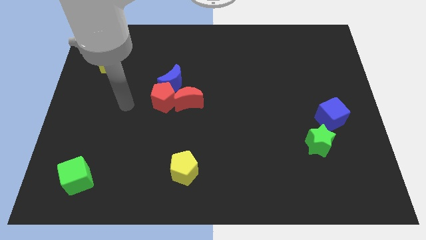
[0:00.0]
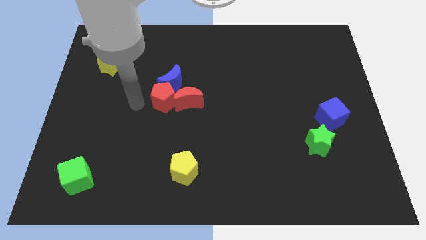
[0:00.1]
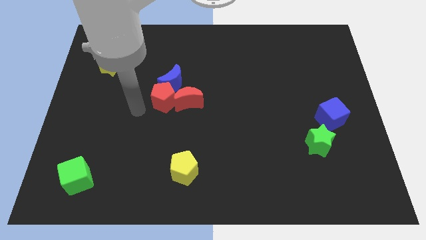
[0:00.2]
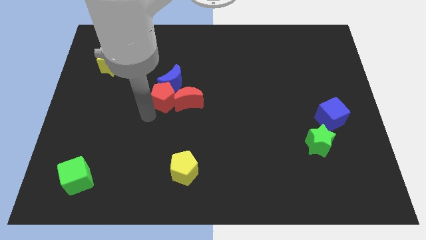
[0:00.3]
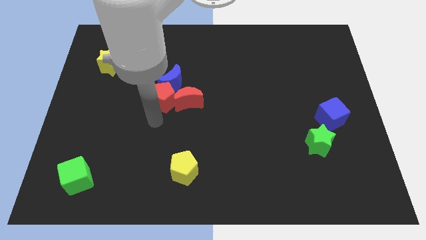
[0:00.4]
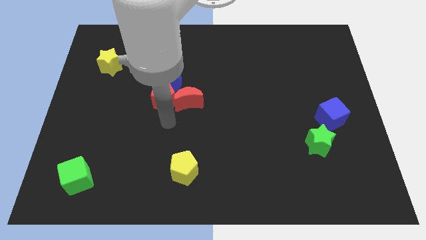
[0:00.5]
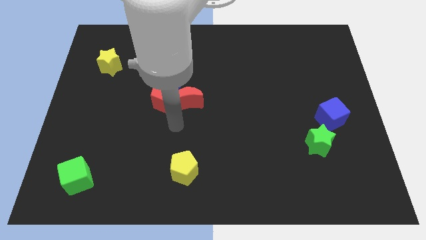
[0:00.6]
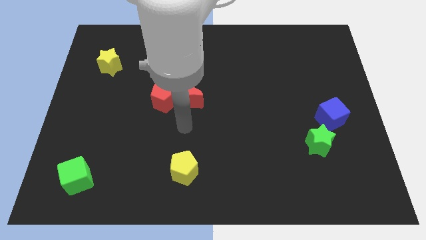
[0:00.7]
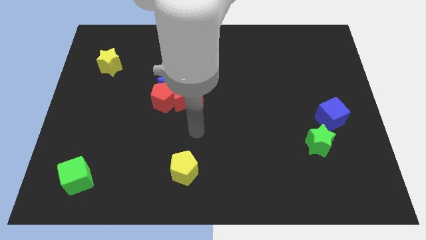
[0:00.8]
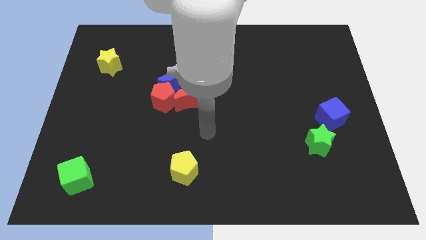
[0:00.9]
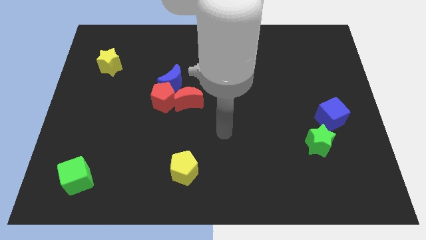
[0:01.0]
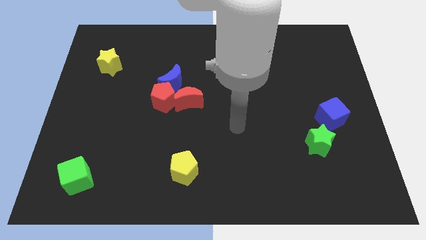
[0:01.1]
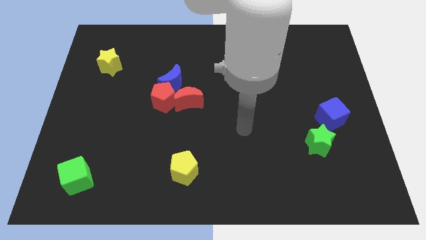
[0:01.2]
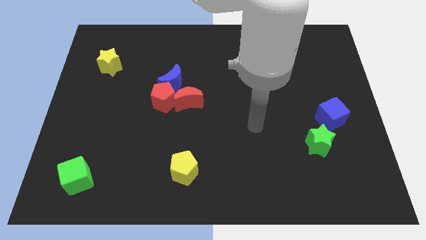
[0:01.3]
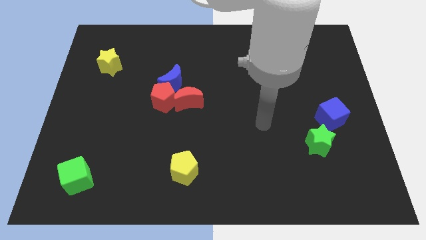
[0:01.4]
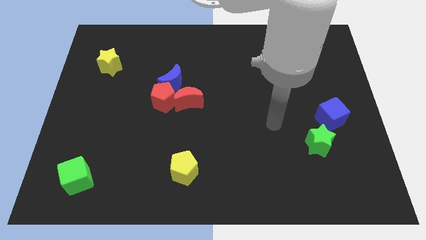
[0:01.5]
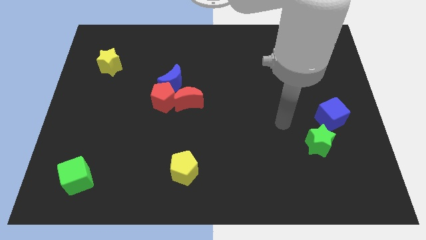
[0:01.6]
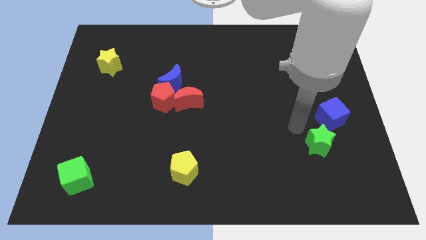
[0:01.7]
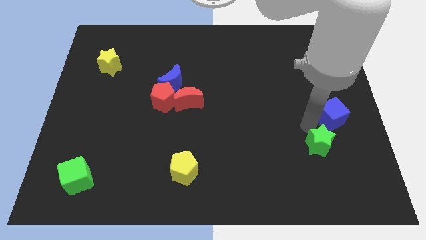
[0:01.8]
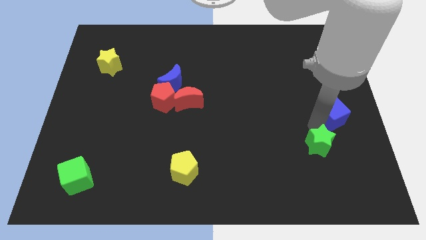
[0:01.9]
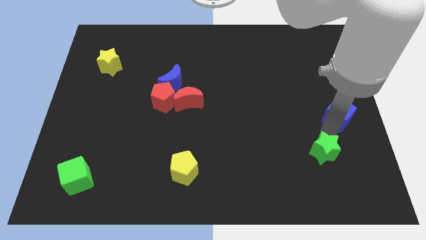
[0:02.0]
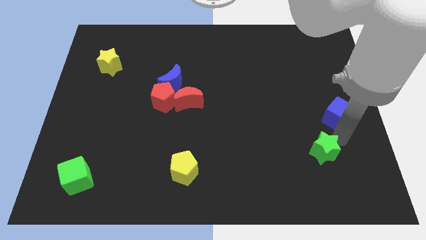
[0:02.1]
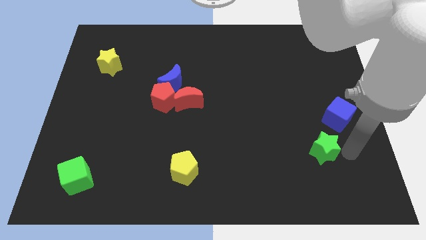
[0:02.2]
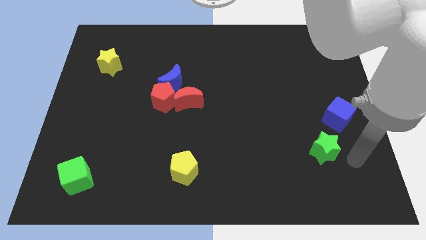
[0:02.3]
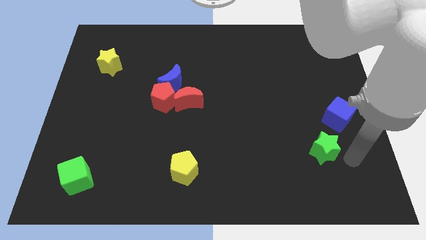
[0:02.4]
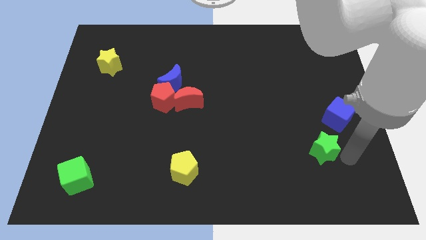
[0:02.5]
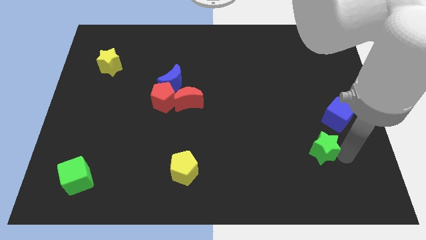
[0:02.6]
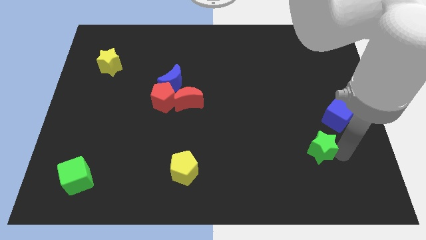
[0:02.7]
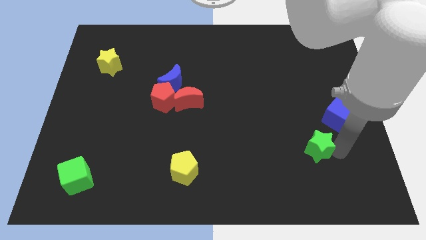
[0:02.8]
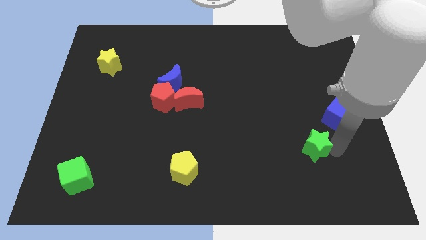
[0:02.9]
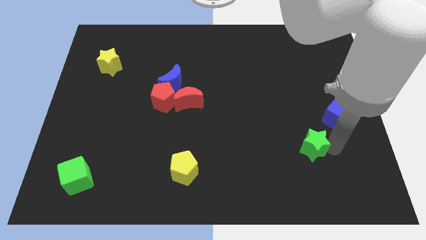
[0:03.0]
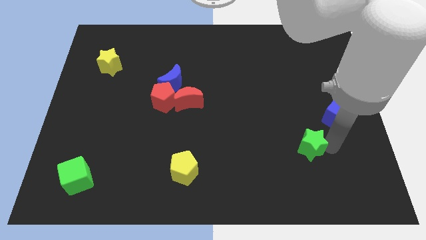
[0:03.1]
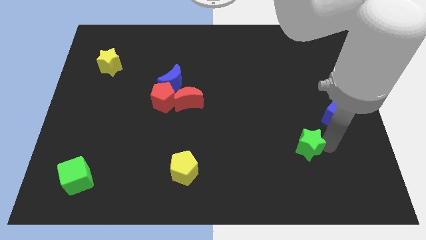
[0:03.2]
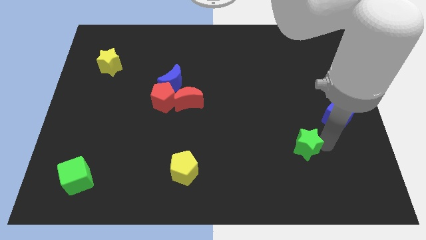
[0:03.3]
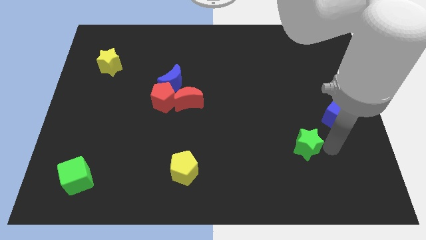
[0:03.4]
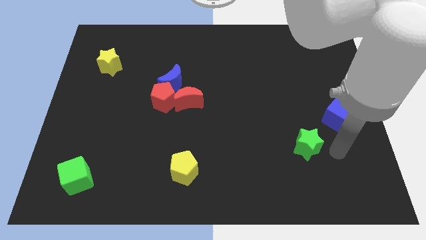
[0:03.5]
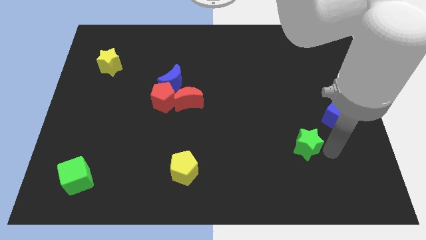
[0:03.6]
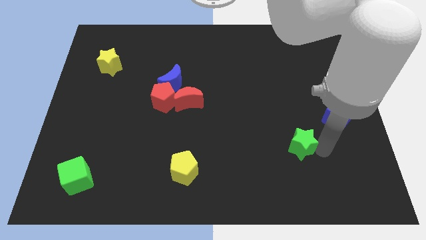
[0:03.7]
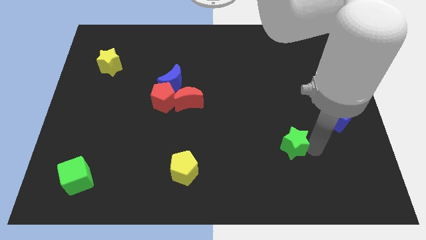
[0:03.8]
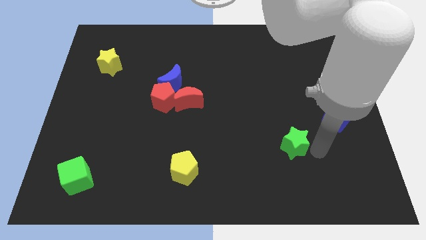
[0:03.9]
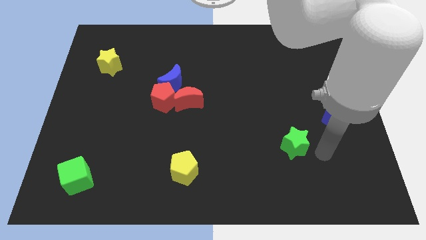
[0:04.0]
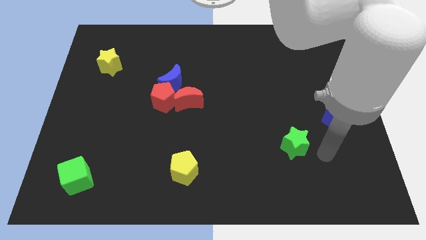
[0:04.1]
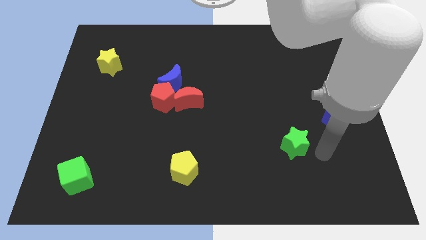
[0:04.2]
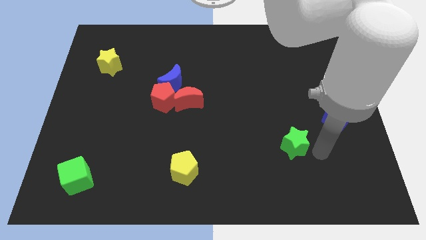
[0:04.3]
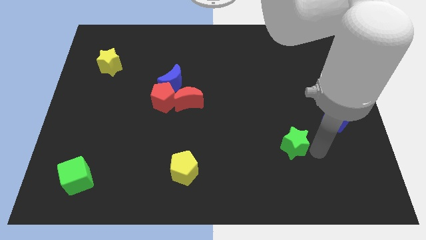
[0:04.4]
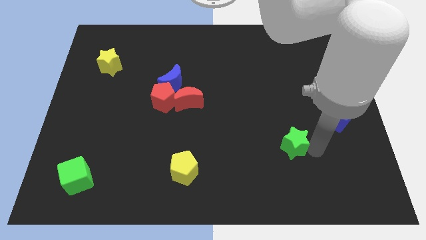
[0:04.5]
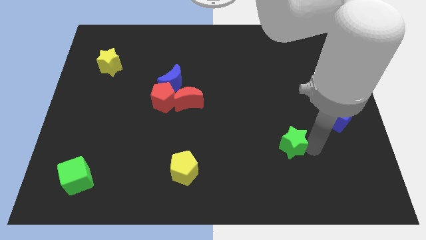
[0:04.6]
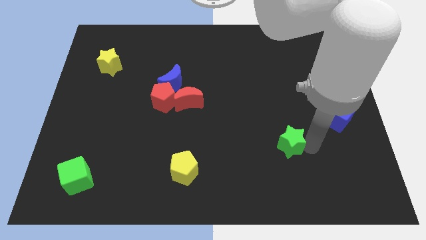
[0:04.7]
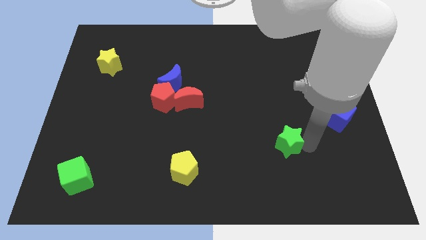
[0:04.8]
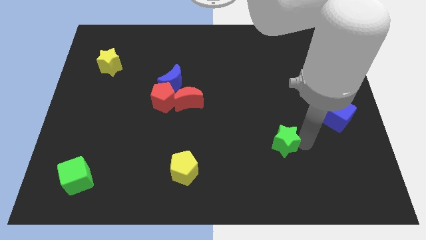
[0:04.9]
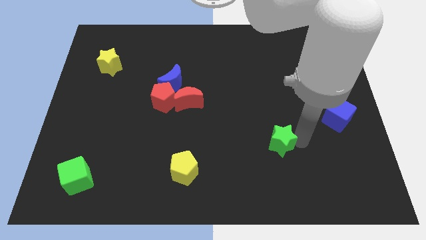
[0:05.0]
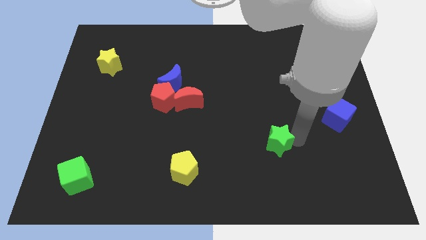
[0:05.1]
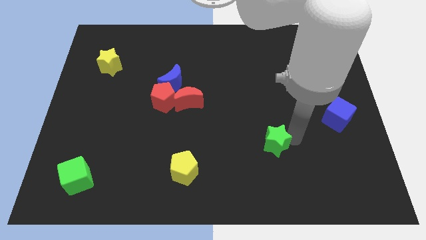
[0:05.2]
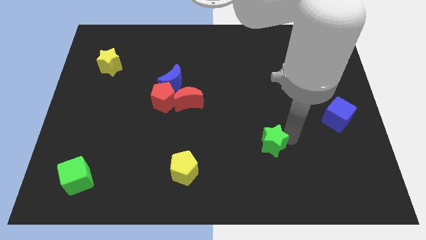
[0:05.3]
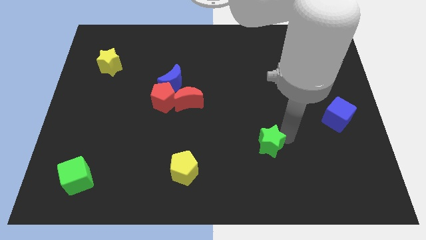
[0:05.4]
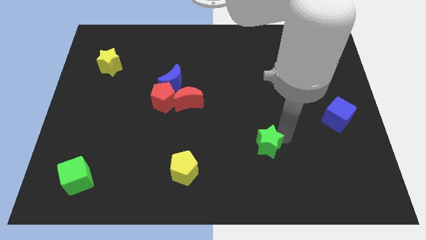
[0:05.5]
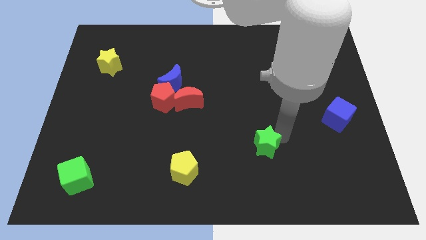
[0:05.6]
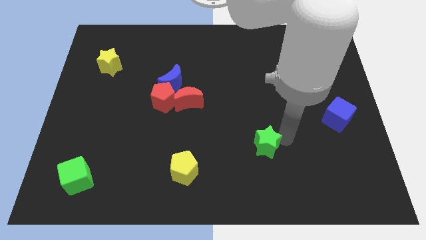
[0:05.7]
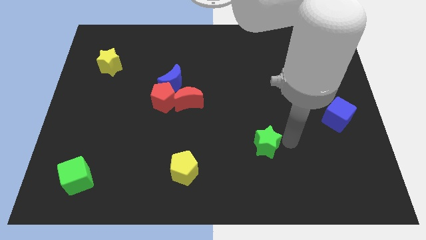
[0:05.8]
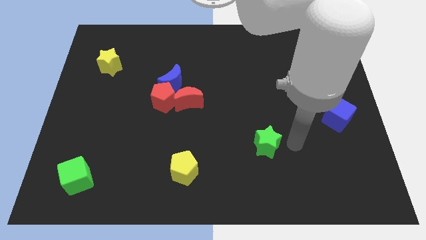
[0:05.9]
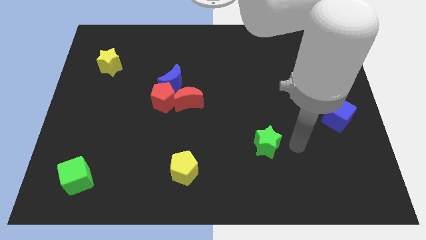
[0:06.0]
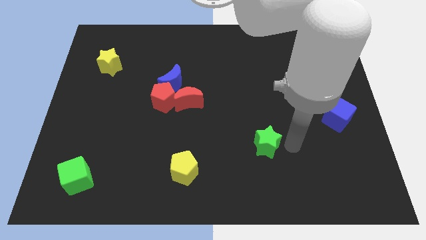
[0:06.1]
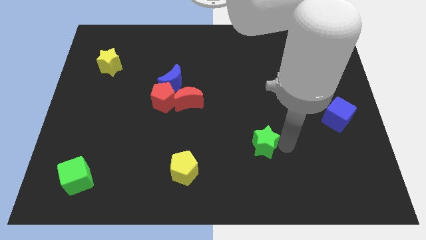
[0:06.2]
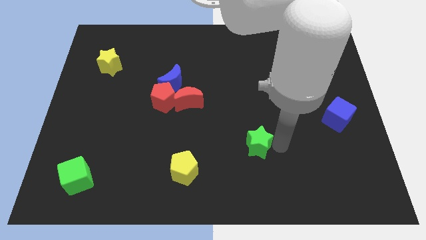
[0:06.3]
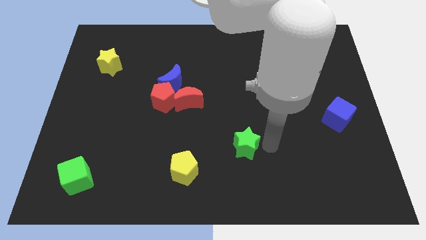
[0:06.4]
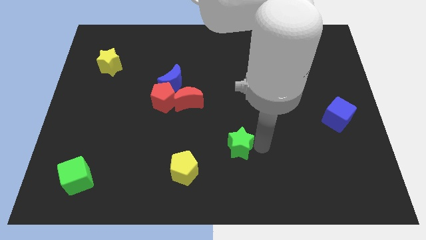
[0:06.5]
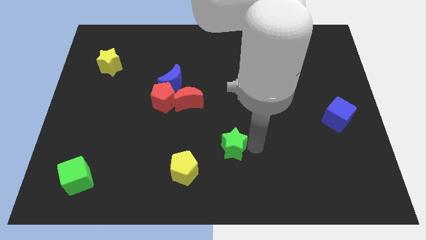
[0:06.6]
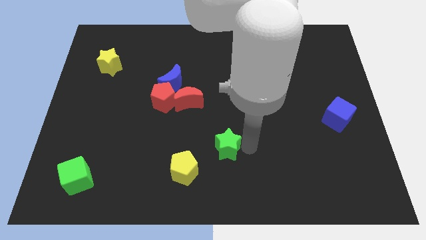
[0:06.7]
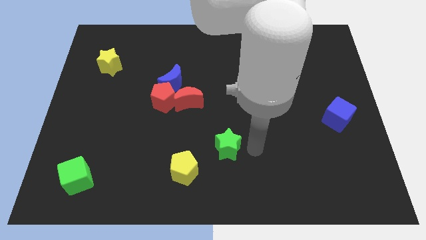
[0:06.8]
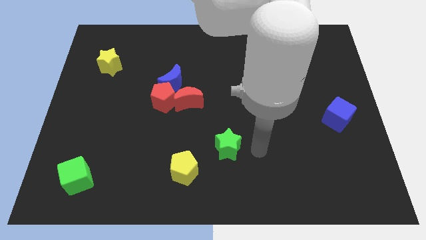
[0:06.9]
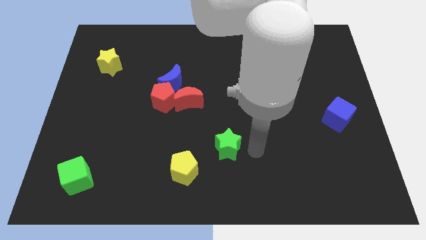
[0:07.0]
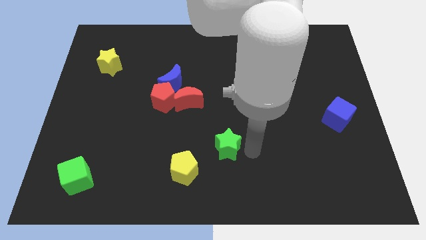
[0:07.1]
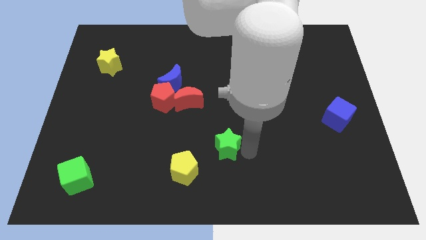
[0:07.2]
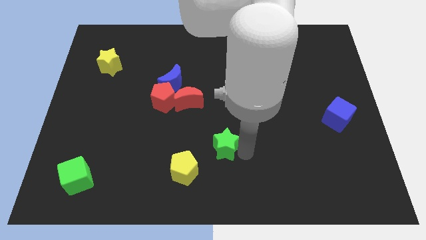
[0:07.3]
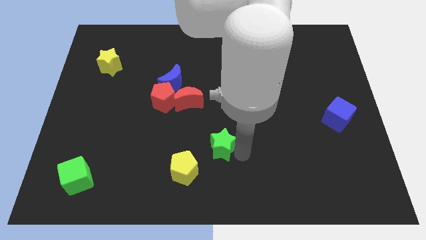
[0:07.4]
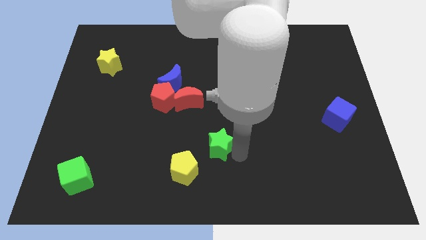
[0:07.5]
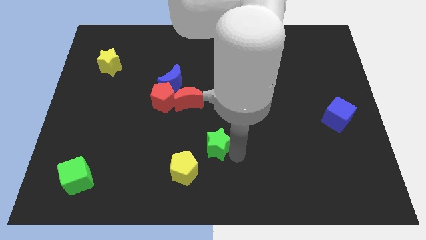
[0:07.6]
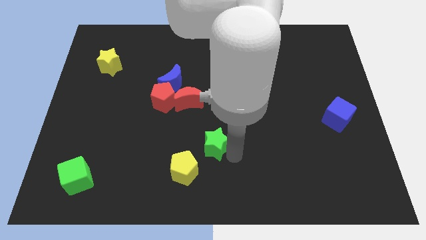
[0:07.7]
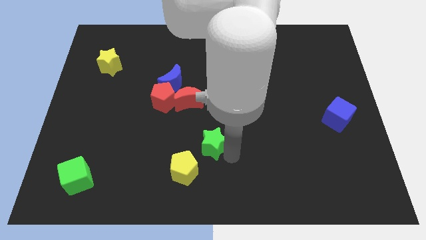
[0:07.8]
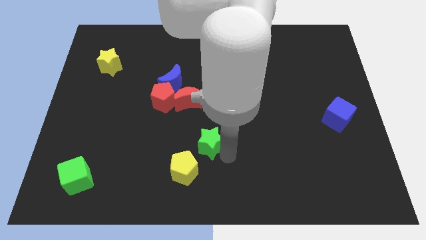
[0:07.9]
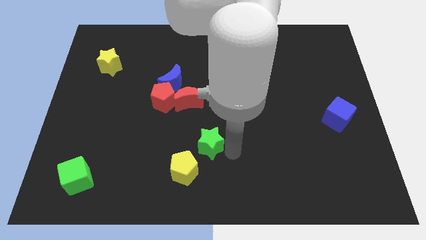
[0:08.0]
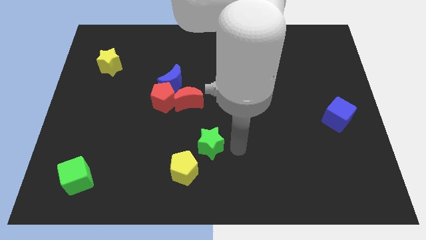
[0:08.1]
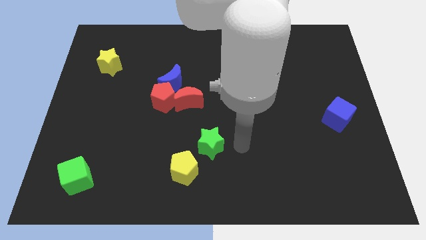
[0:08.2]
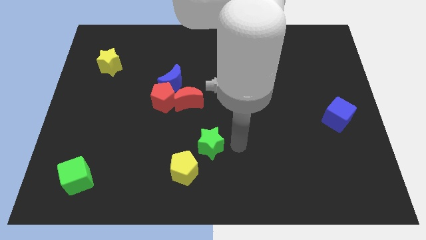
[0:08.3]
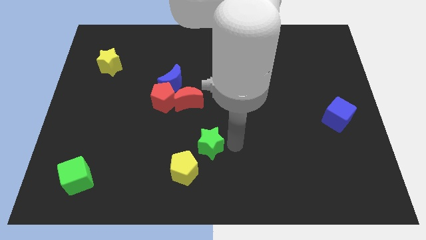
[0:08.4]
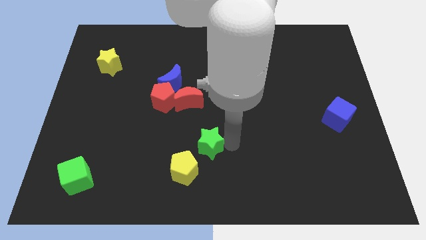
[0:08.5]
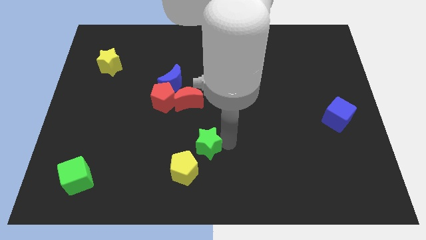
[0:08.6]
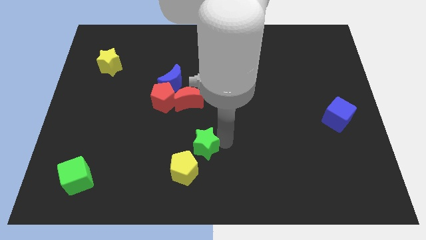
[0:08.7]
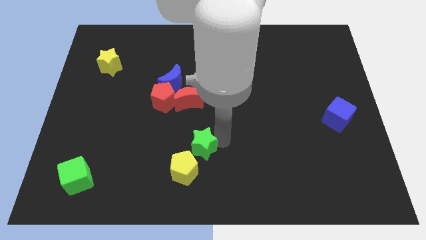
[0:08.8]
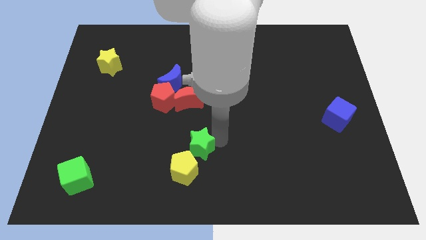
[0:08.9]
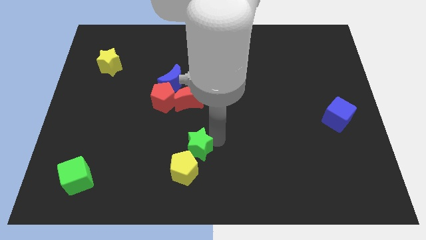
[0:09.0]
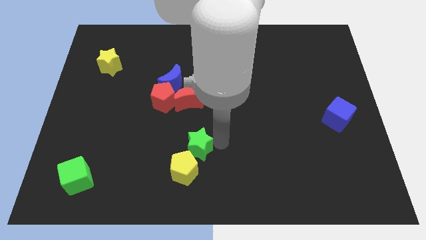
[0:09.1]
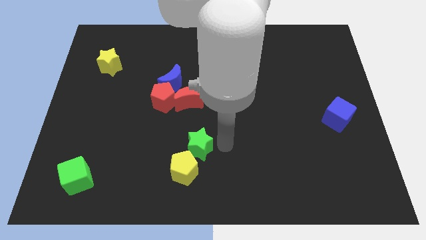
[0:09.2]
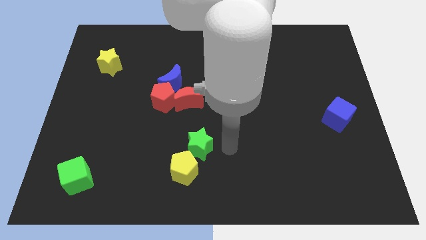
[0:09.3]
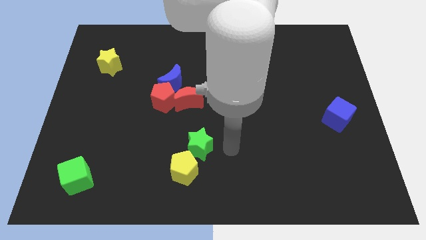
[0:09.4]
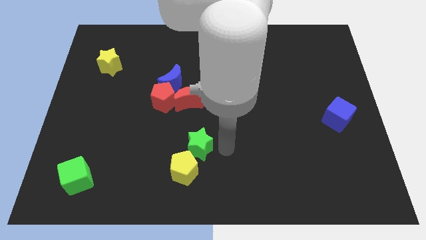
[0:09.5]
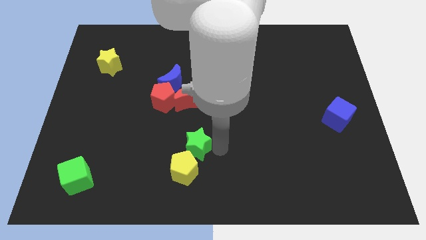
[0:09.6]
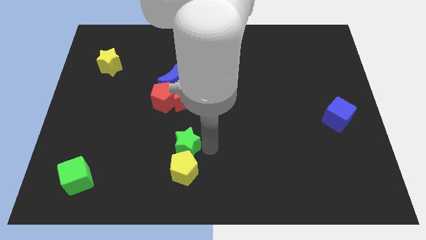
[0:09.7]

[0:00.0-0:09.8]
push the green star to the top left side of the yellow pentagon
